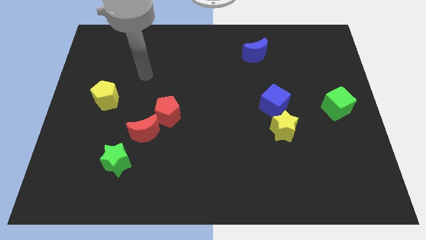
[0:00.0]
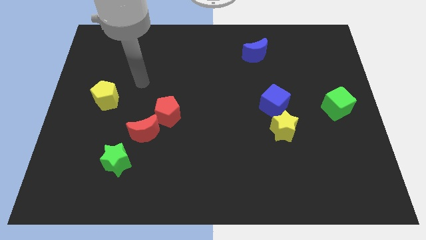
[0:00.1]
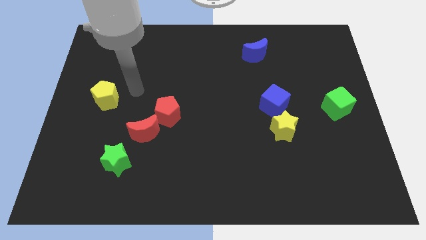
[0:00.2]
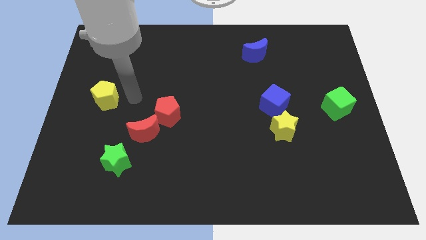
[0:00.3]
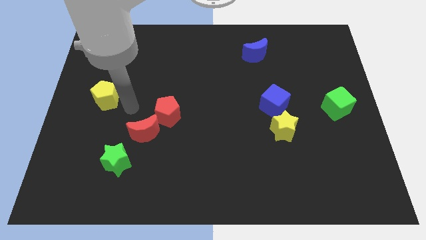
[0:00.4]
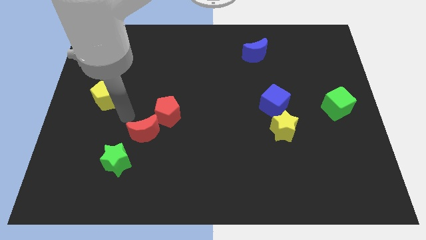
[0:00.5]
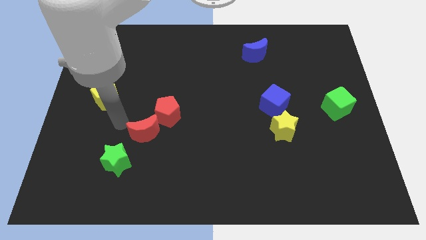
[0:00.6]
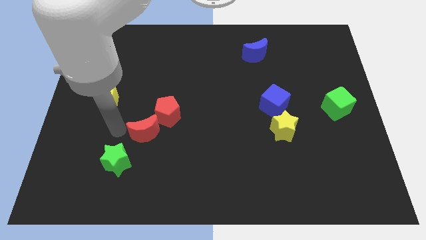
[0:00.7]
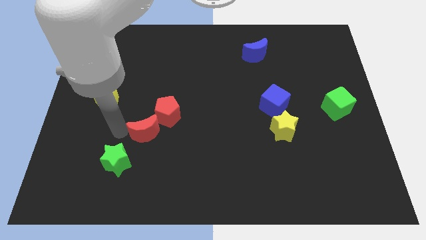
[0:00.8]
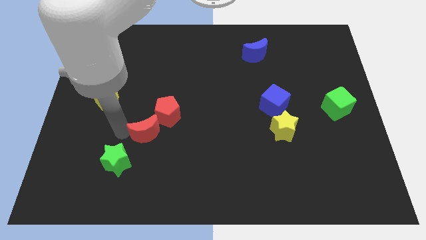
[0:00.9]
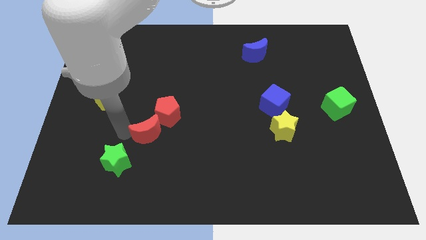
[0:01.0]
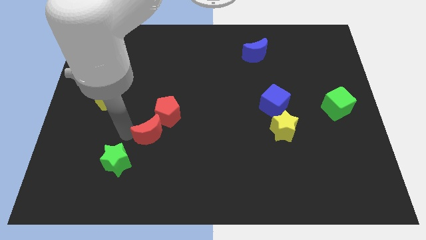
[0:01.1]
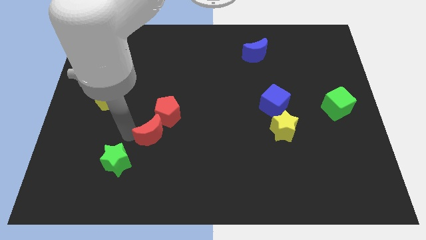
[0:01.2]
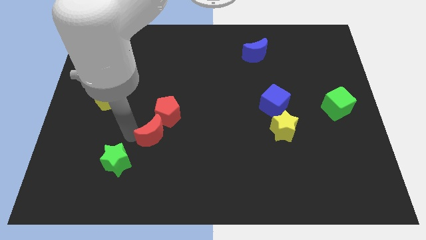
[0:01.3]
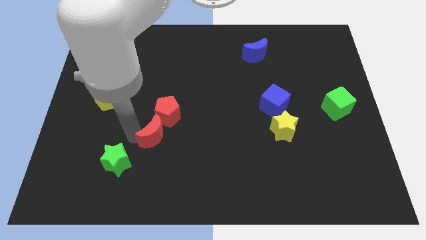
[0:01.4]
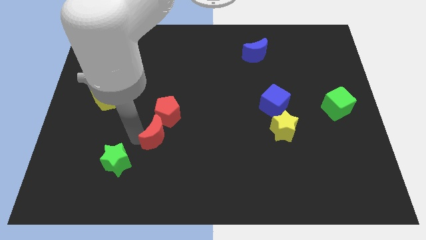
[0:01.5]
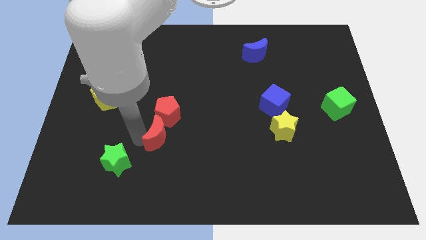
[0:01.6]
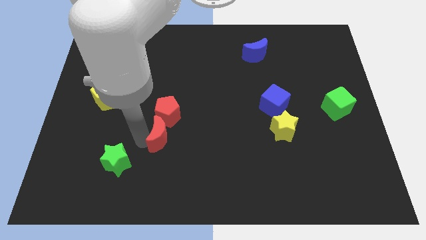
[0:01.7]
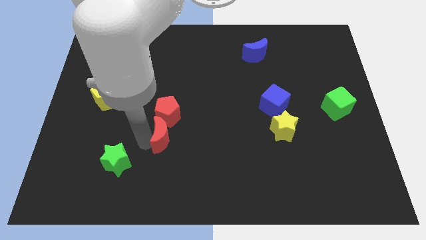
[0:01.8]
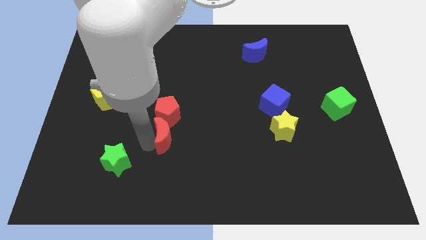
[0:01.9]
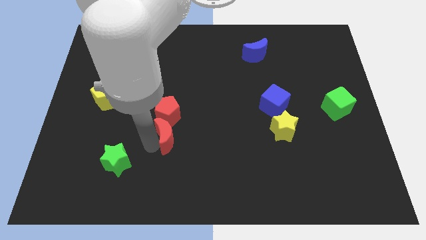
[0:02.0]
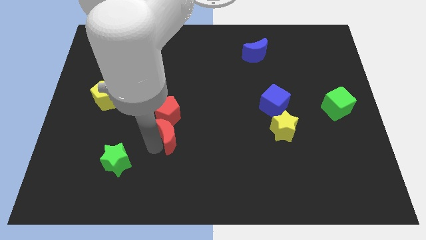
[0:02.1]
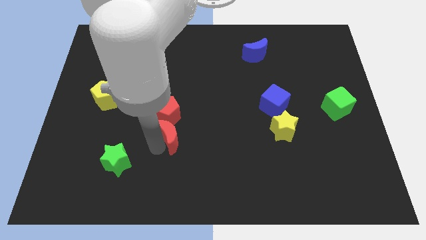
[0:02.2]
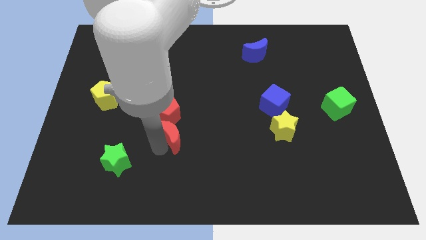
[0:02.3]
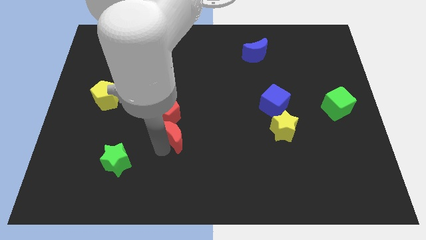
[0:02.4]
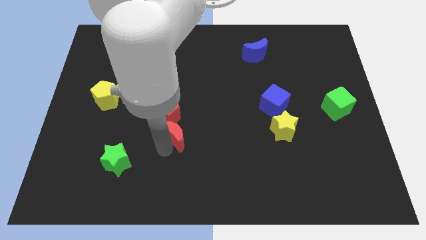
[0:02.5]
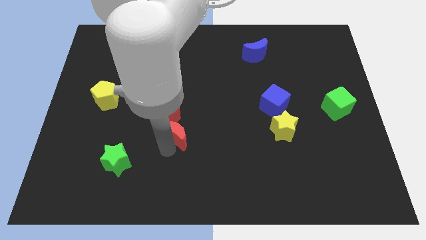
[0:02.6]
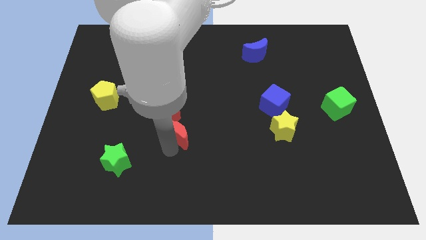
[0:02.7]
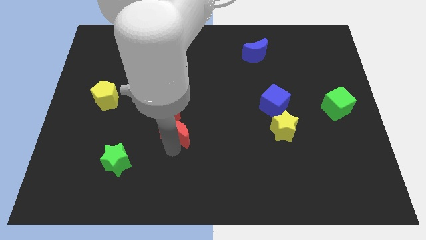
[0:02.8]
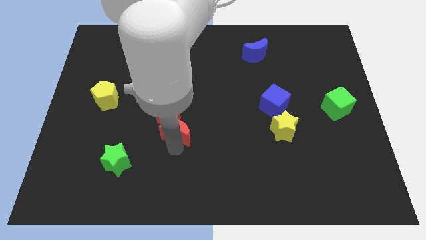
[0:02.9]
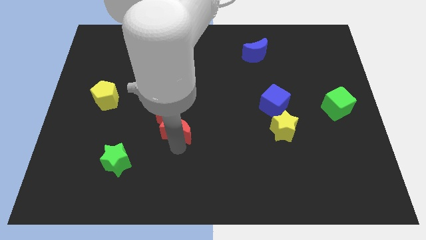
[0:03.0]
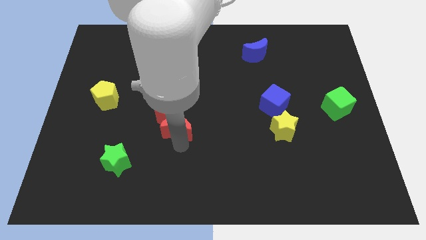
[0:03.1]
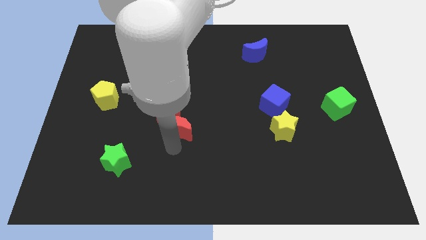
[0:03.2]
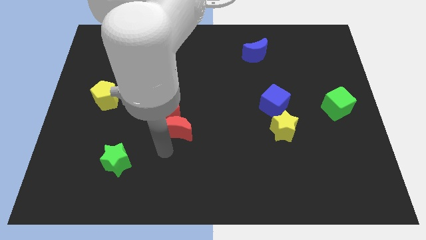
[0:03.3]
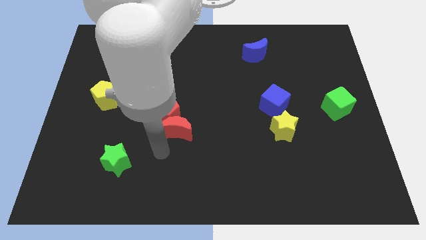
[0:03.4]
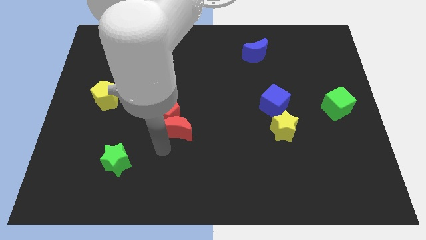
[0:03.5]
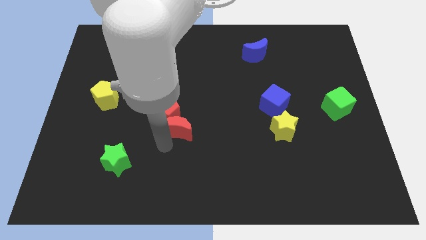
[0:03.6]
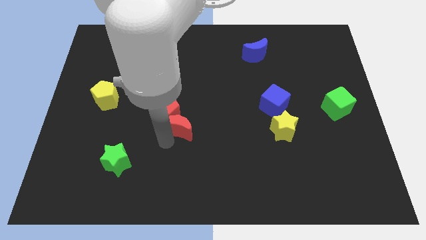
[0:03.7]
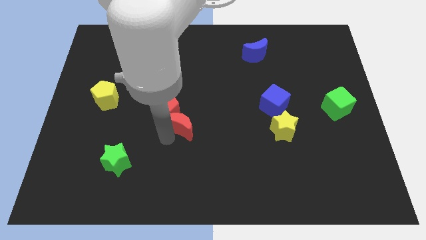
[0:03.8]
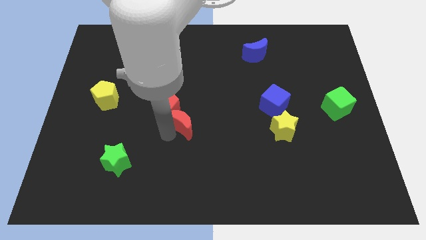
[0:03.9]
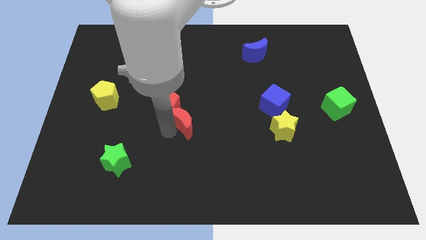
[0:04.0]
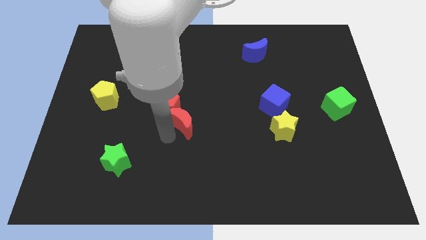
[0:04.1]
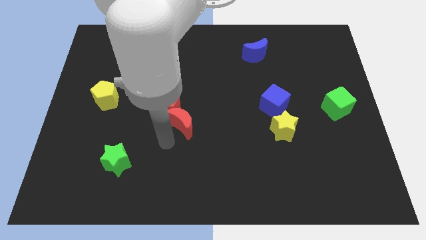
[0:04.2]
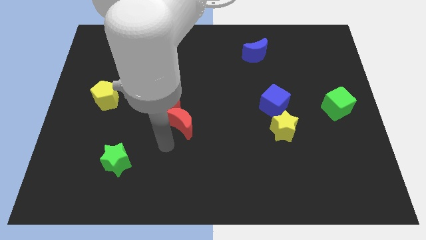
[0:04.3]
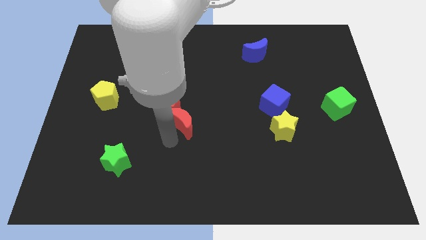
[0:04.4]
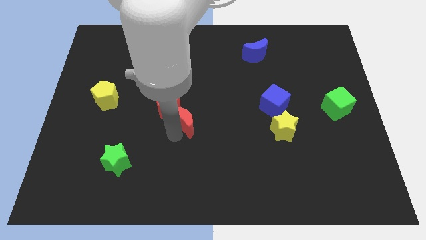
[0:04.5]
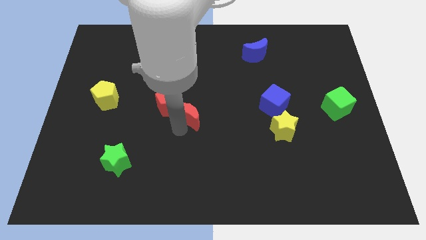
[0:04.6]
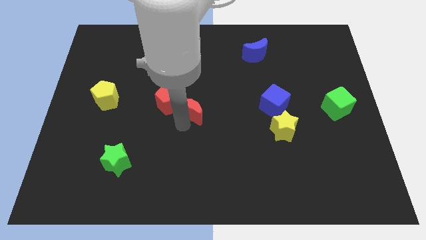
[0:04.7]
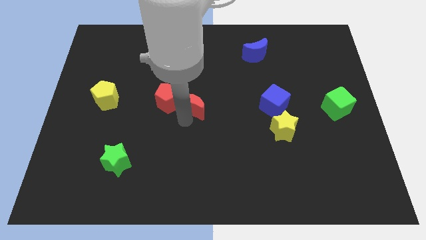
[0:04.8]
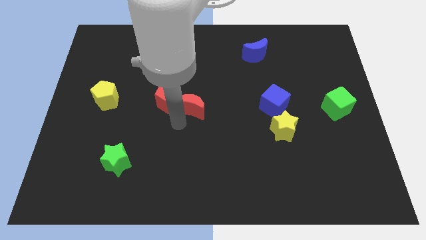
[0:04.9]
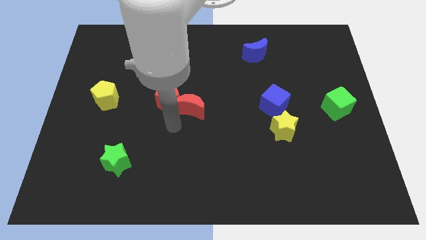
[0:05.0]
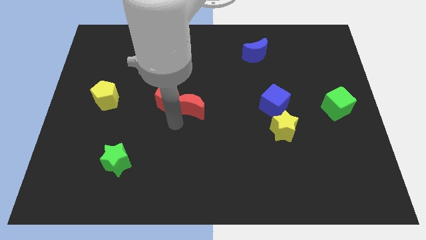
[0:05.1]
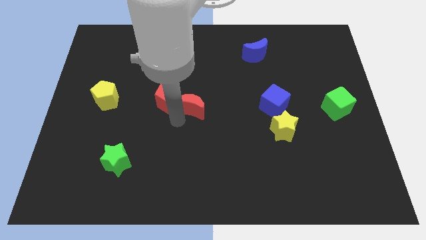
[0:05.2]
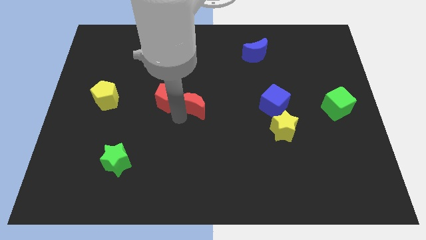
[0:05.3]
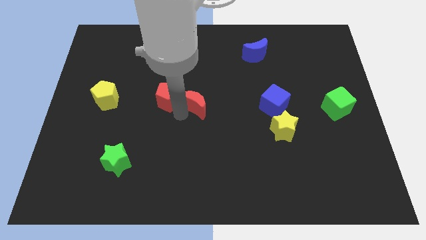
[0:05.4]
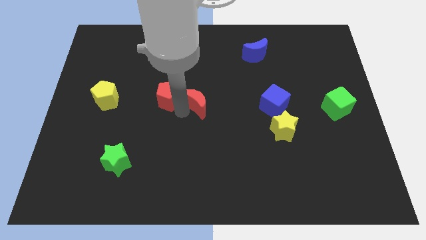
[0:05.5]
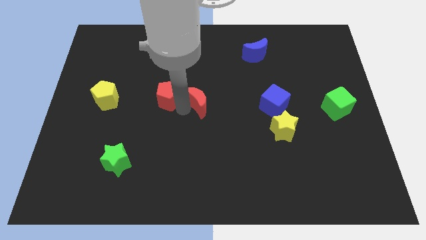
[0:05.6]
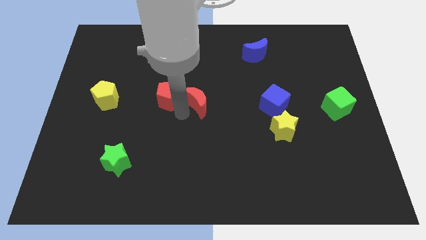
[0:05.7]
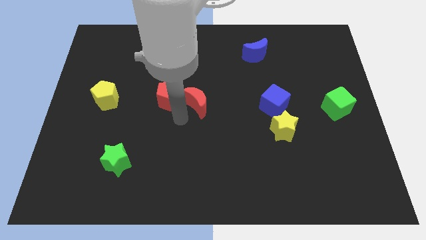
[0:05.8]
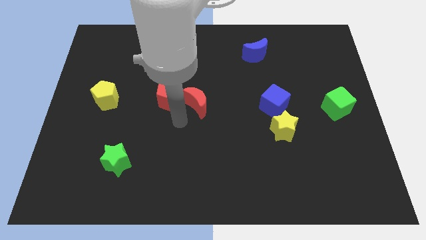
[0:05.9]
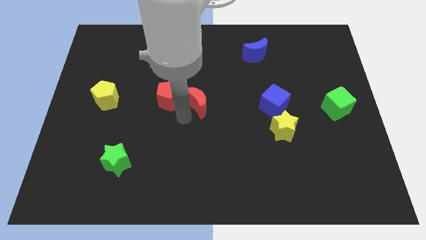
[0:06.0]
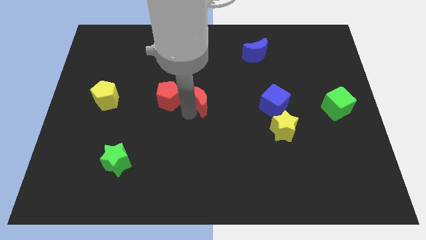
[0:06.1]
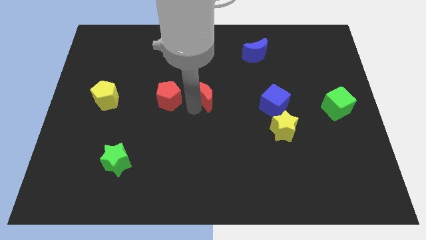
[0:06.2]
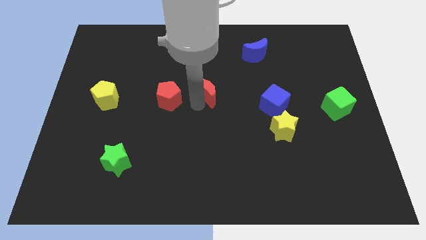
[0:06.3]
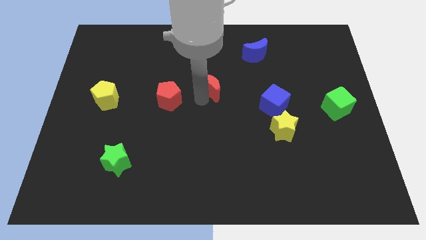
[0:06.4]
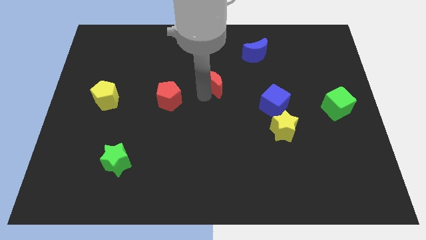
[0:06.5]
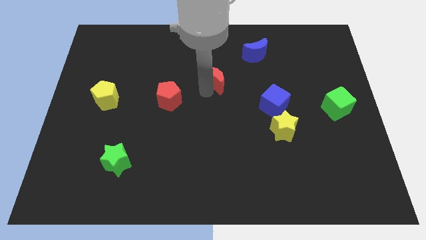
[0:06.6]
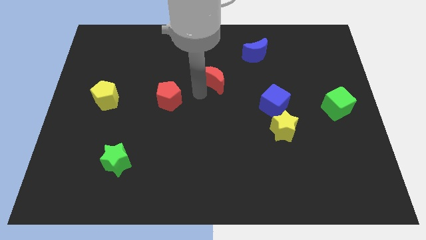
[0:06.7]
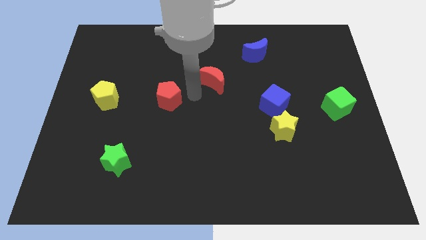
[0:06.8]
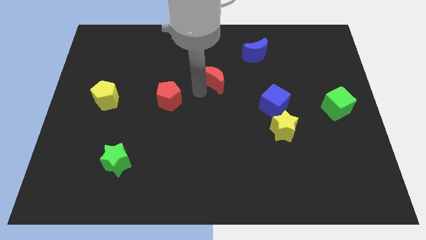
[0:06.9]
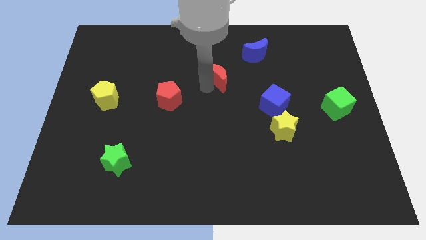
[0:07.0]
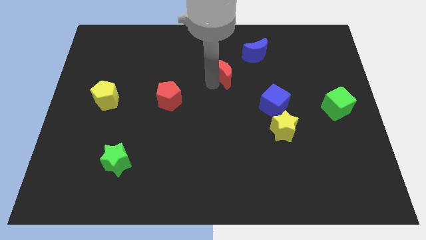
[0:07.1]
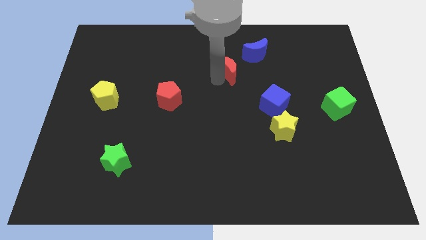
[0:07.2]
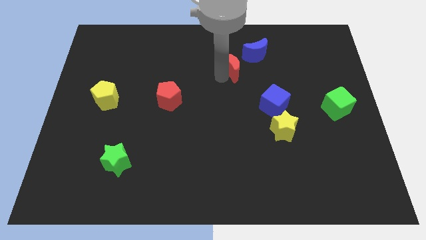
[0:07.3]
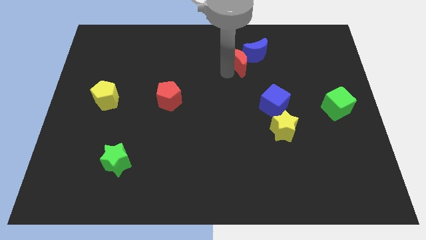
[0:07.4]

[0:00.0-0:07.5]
move the red moon to the blue moon
